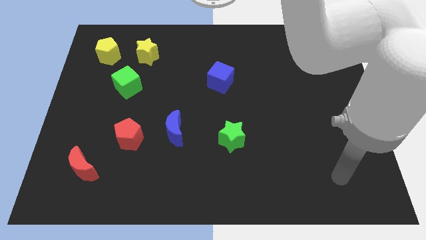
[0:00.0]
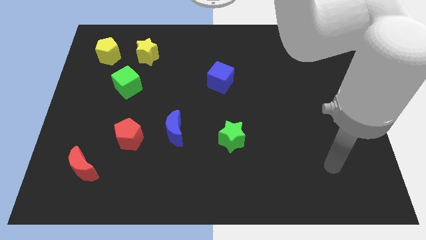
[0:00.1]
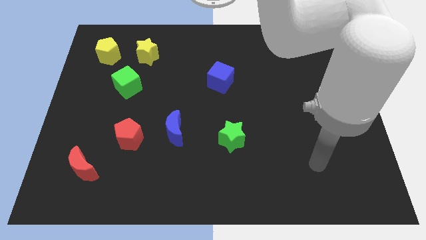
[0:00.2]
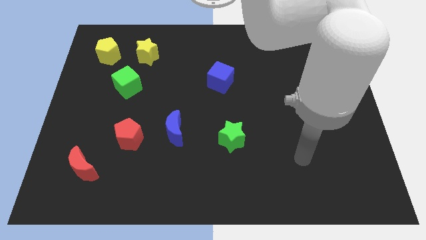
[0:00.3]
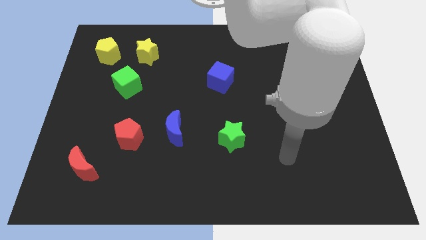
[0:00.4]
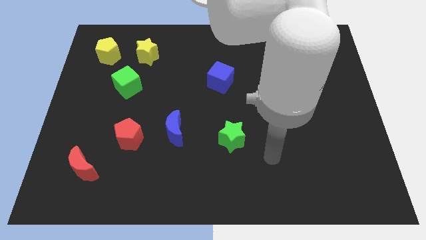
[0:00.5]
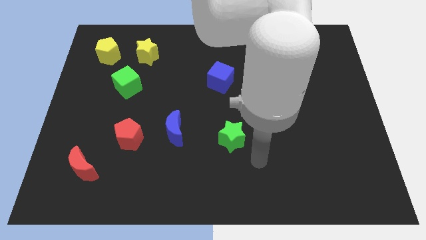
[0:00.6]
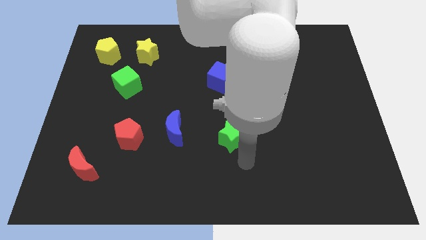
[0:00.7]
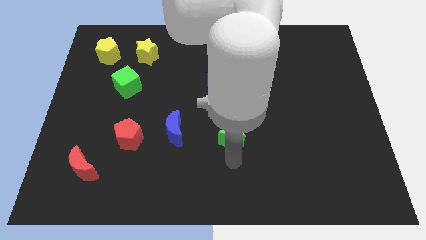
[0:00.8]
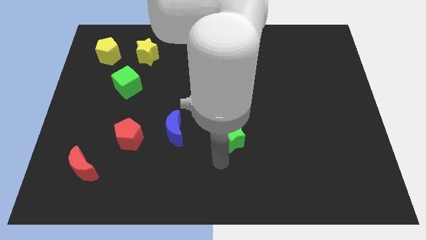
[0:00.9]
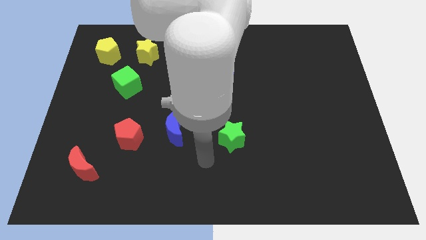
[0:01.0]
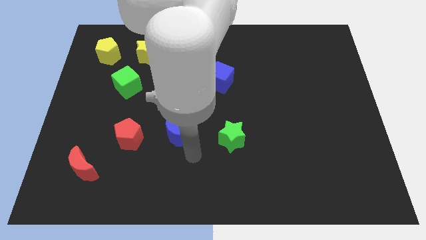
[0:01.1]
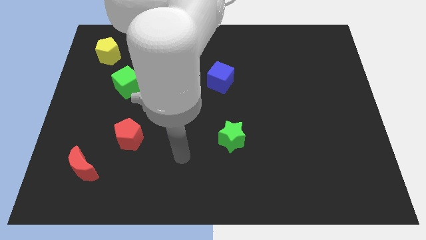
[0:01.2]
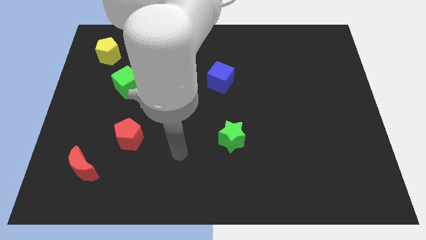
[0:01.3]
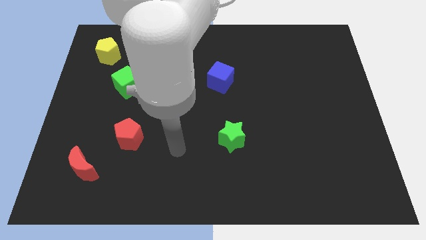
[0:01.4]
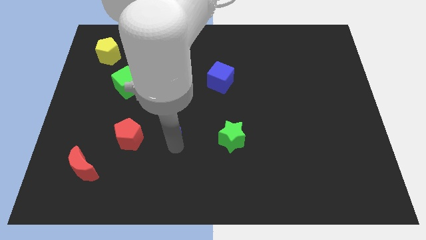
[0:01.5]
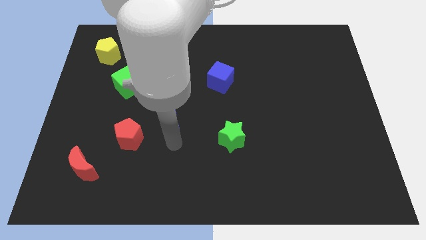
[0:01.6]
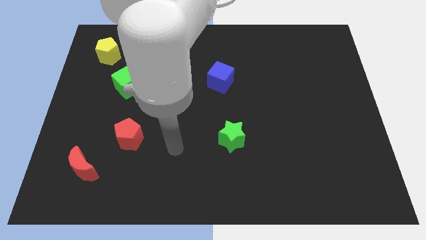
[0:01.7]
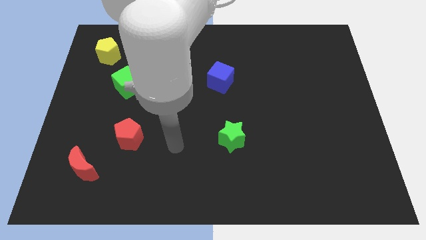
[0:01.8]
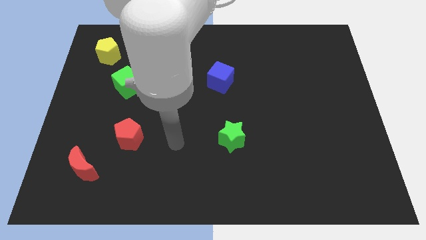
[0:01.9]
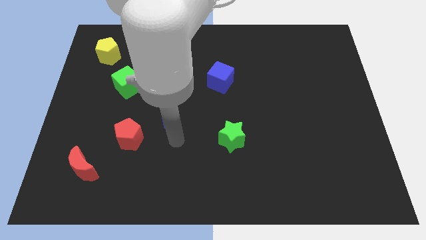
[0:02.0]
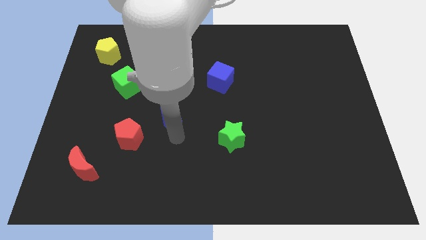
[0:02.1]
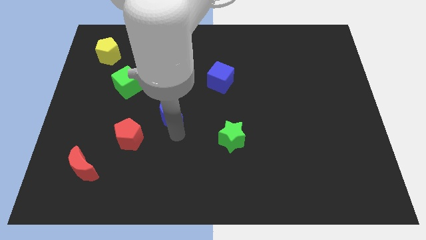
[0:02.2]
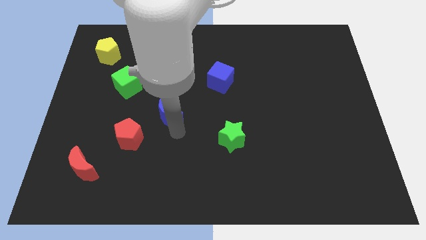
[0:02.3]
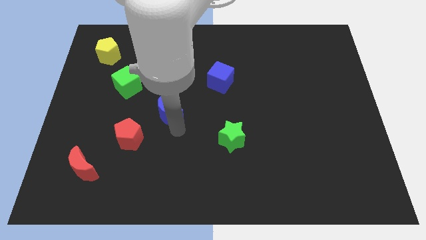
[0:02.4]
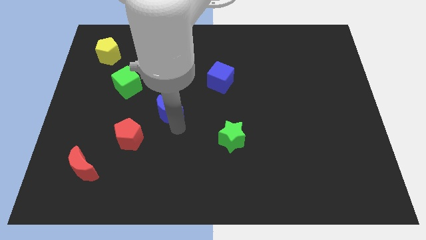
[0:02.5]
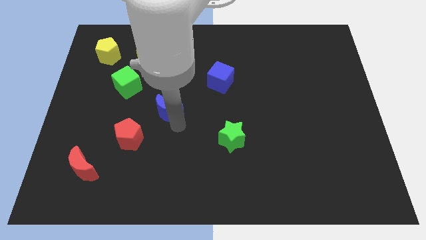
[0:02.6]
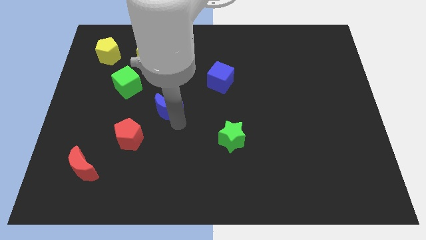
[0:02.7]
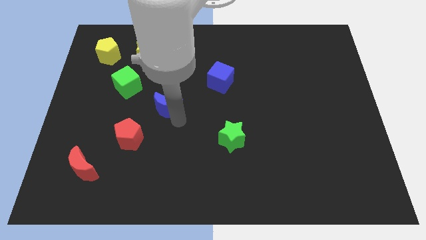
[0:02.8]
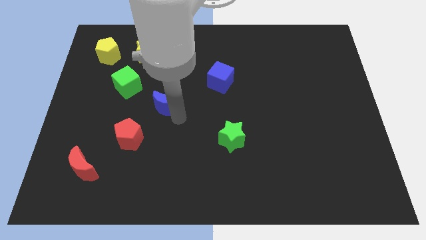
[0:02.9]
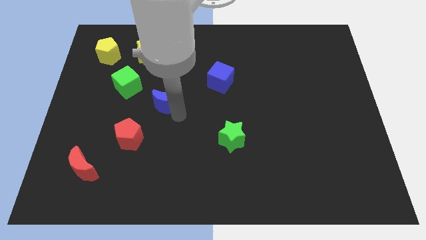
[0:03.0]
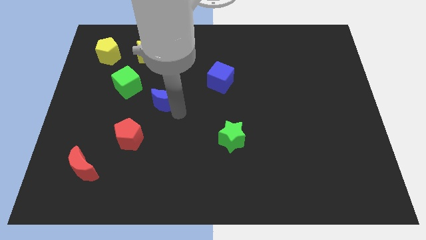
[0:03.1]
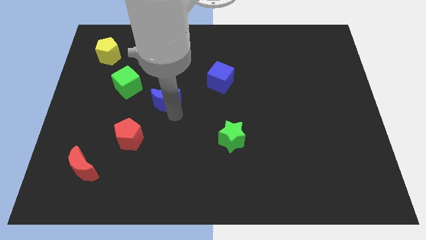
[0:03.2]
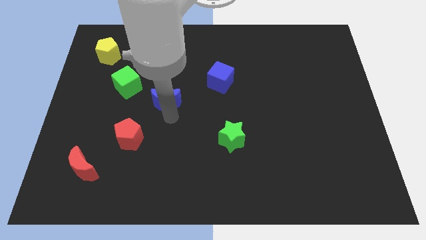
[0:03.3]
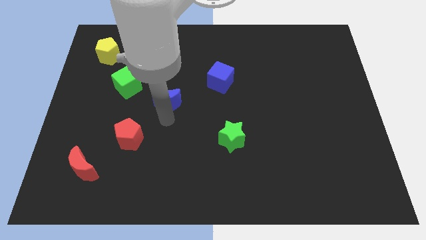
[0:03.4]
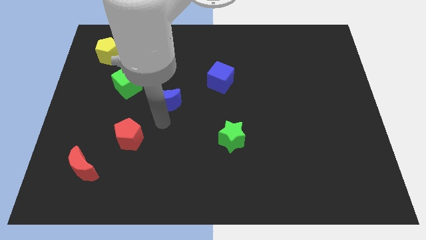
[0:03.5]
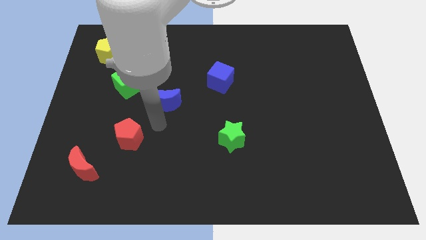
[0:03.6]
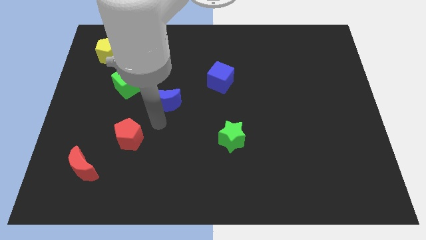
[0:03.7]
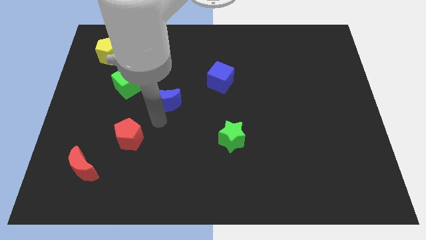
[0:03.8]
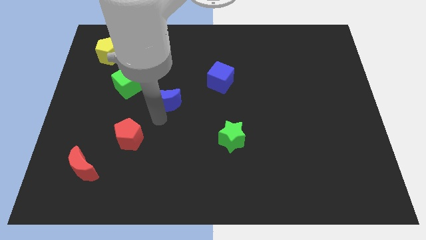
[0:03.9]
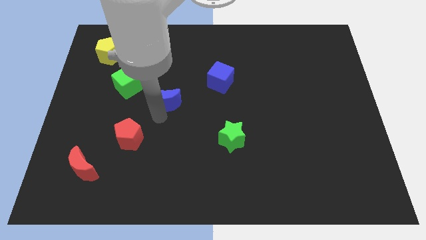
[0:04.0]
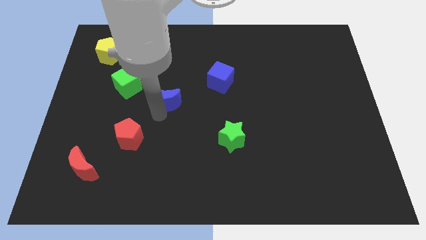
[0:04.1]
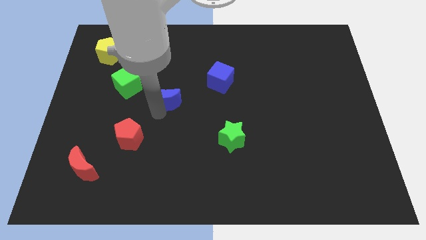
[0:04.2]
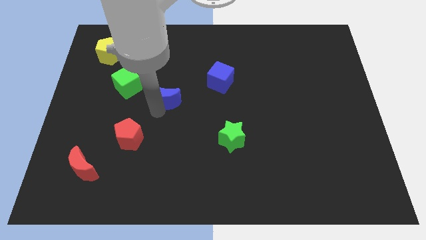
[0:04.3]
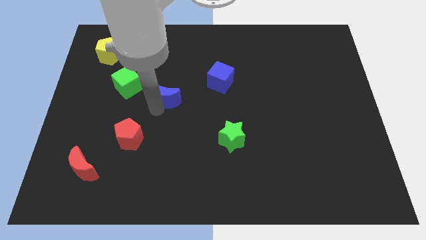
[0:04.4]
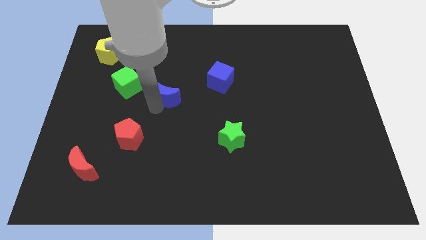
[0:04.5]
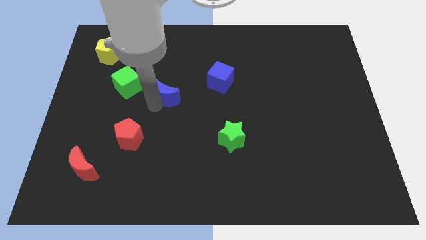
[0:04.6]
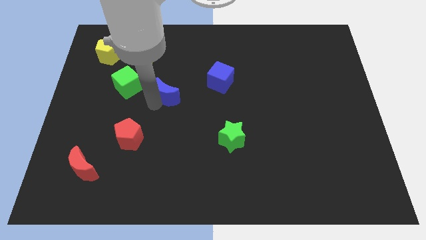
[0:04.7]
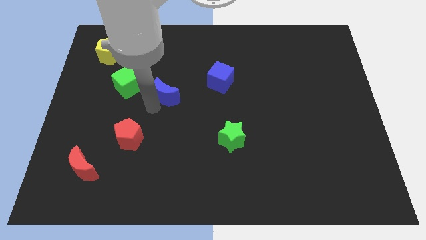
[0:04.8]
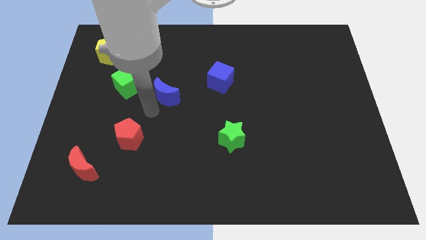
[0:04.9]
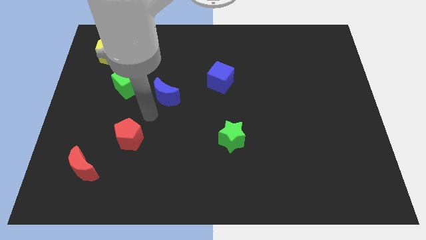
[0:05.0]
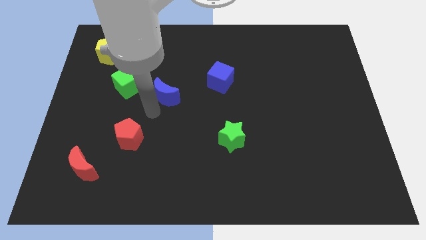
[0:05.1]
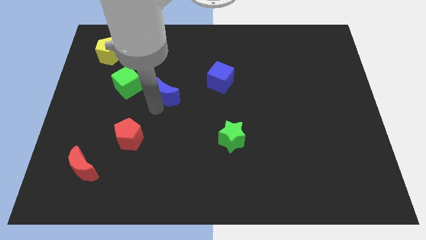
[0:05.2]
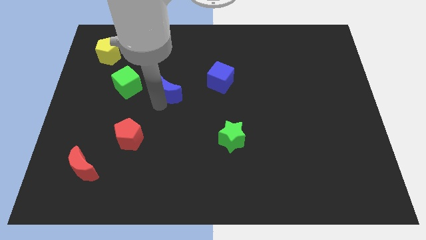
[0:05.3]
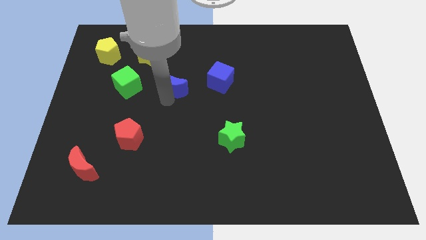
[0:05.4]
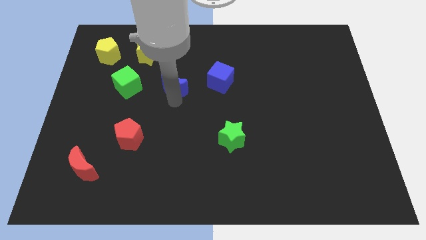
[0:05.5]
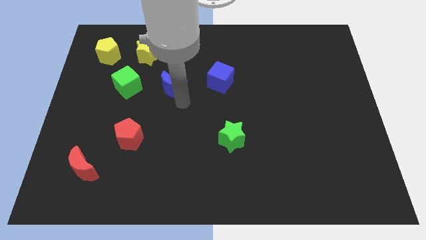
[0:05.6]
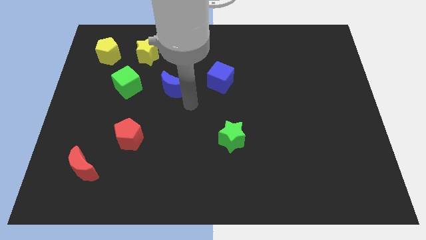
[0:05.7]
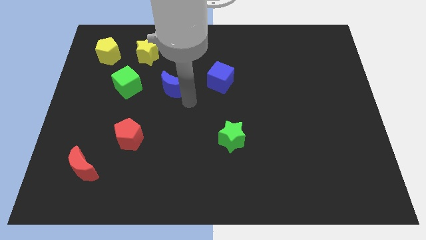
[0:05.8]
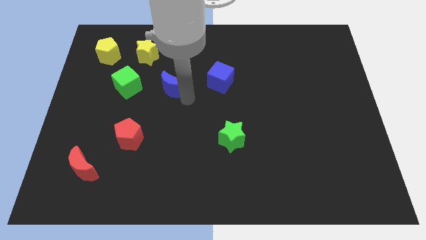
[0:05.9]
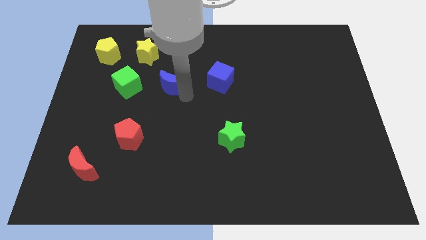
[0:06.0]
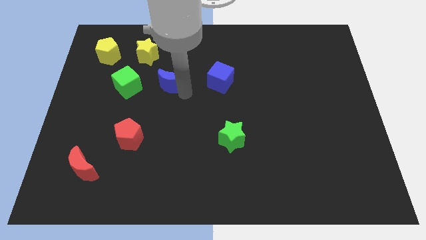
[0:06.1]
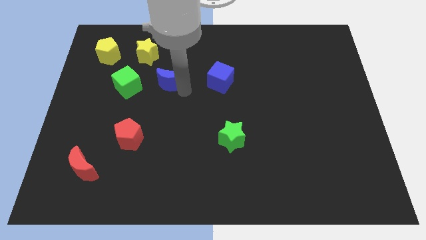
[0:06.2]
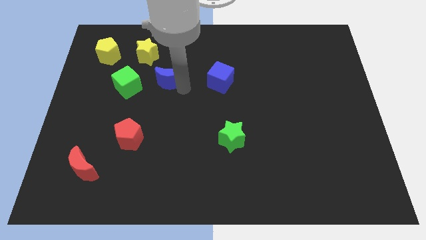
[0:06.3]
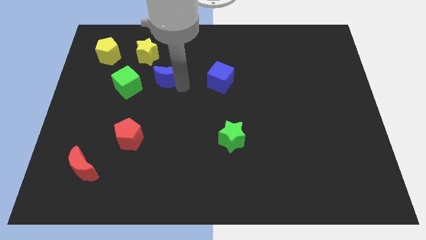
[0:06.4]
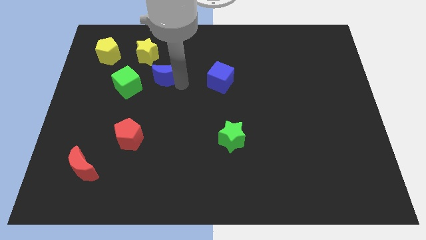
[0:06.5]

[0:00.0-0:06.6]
slide the blue moon to the top right of the green cube
